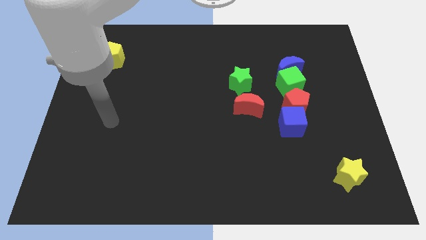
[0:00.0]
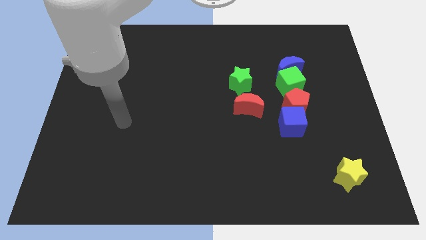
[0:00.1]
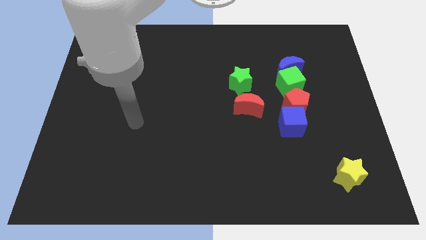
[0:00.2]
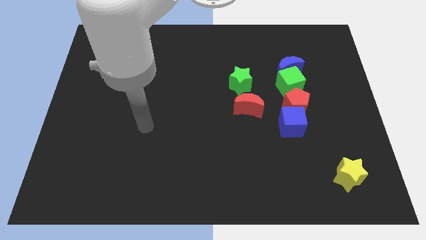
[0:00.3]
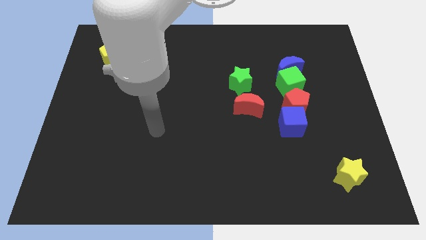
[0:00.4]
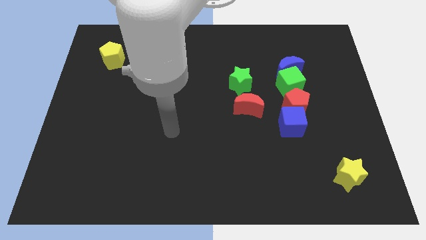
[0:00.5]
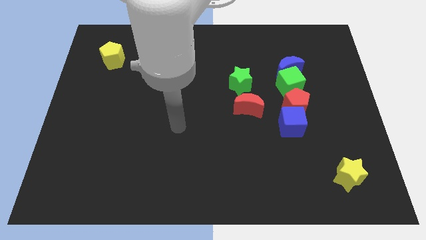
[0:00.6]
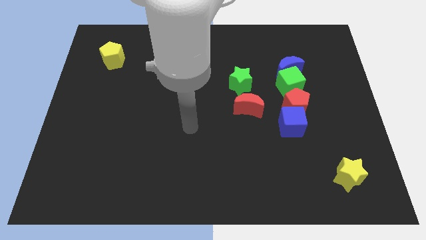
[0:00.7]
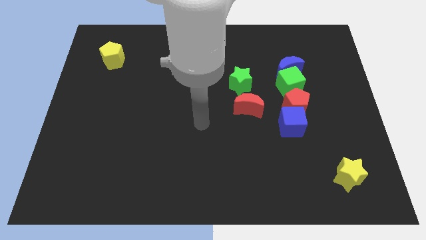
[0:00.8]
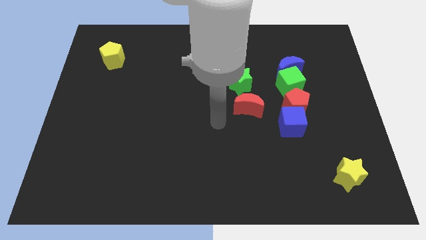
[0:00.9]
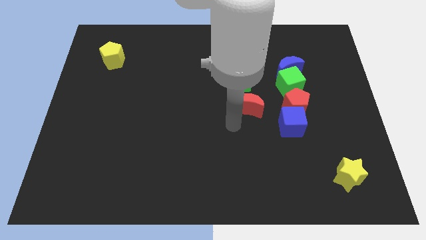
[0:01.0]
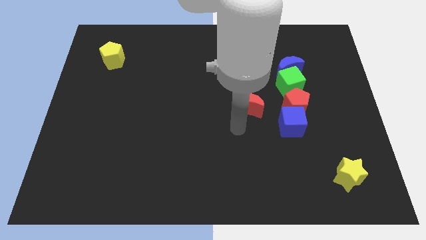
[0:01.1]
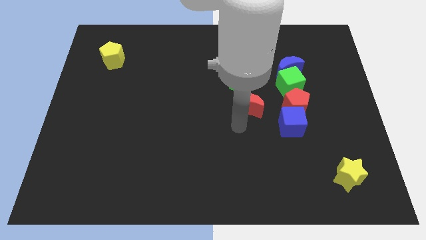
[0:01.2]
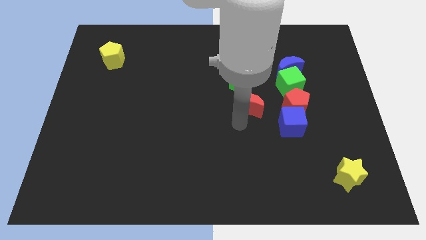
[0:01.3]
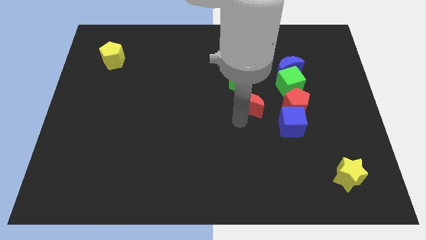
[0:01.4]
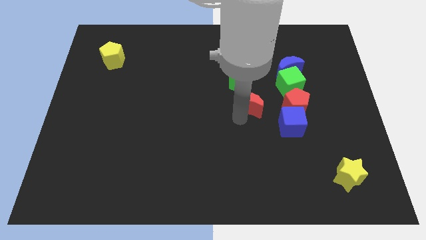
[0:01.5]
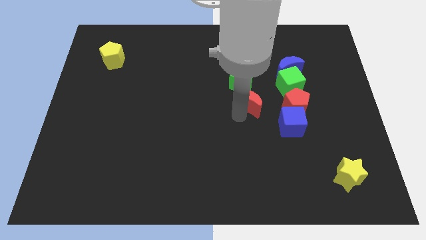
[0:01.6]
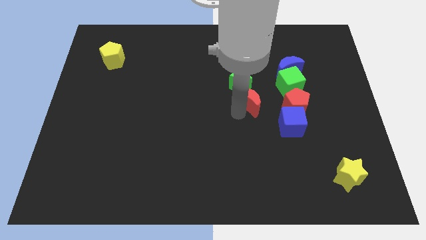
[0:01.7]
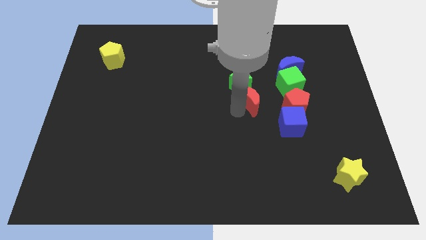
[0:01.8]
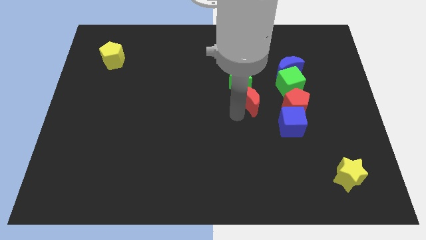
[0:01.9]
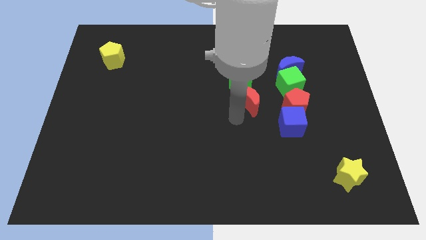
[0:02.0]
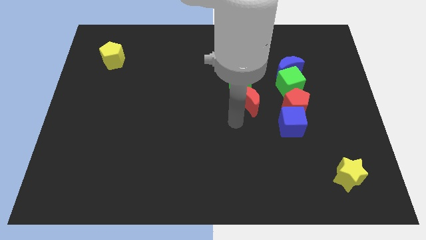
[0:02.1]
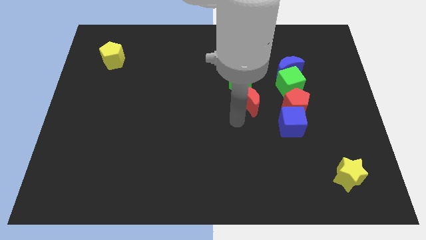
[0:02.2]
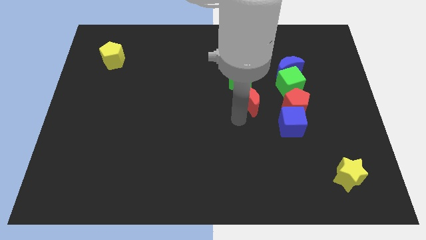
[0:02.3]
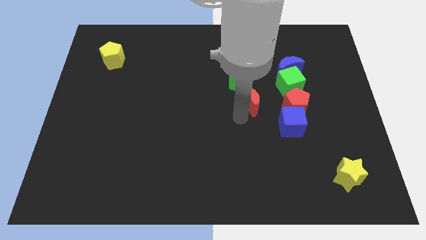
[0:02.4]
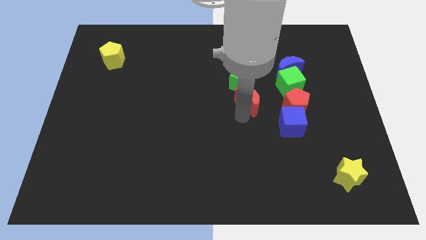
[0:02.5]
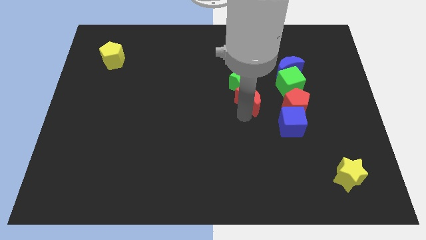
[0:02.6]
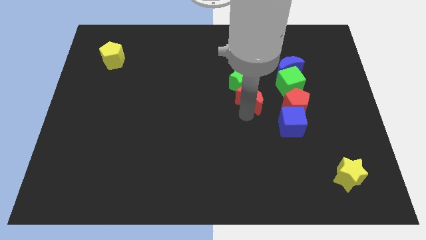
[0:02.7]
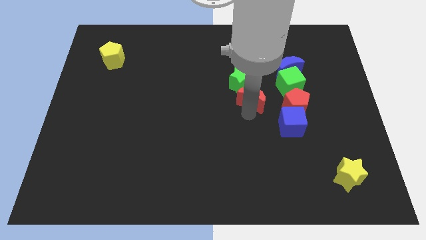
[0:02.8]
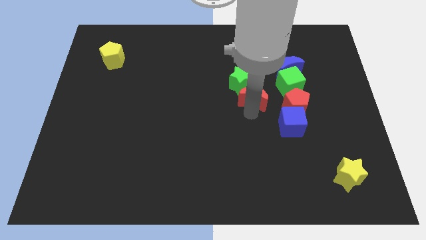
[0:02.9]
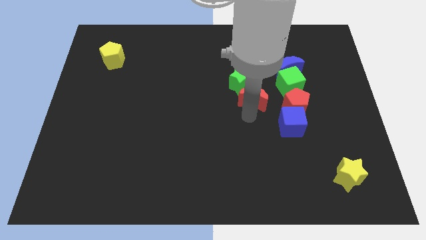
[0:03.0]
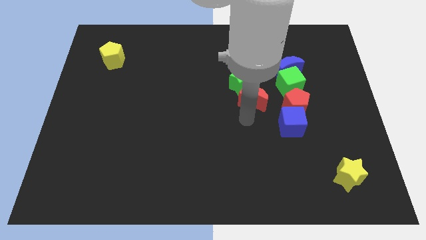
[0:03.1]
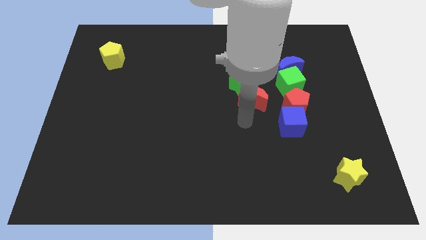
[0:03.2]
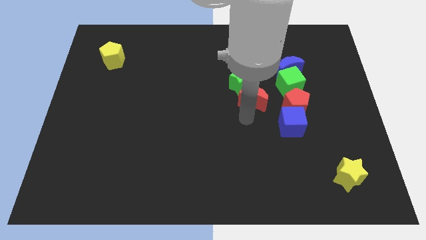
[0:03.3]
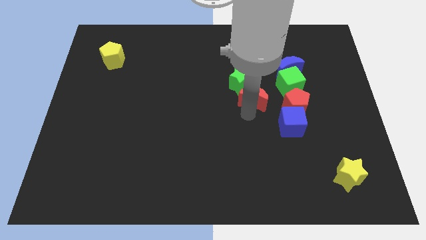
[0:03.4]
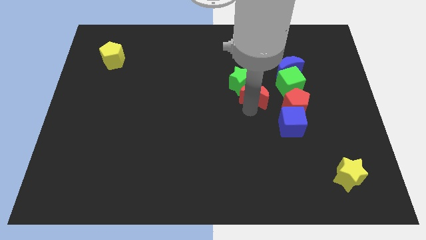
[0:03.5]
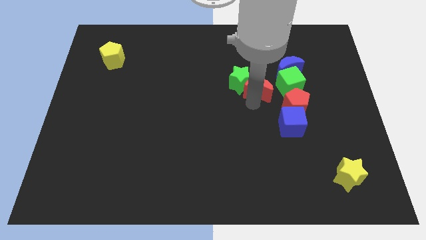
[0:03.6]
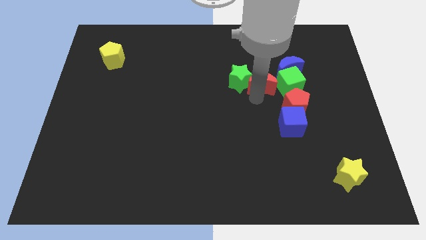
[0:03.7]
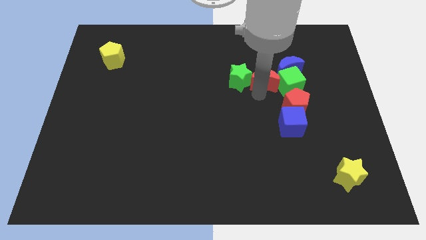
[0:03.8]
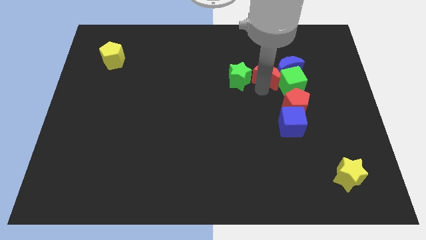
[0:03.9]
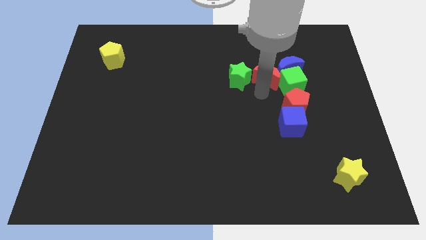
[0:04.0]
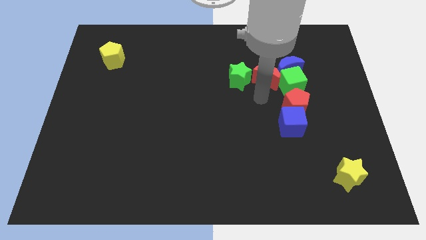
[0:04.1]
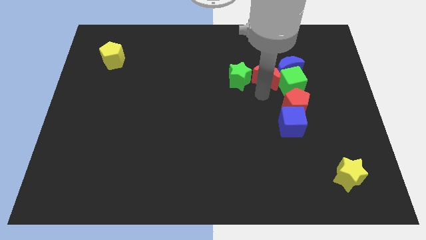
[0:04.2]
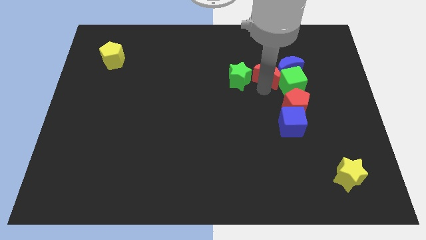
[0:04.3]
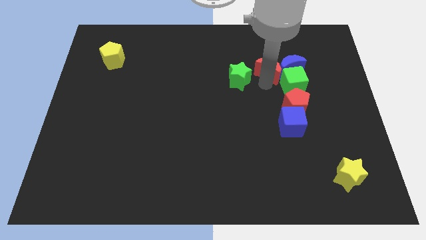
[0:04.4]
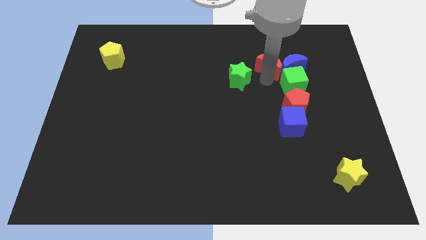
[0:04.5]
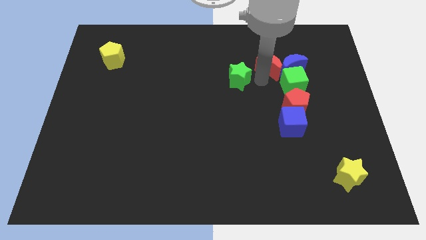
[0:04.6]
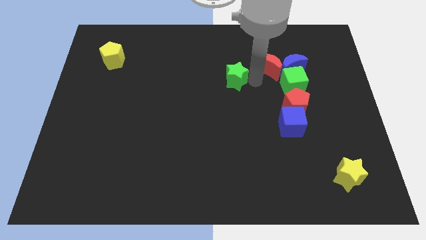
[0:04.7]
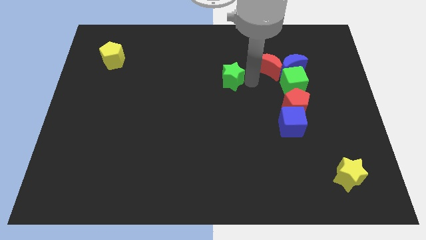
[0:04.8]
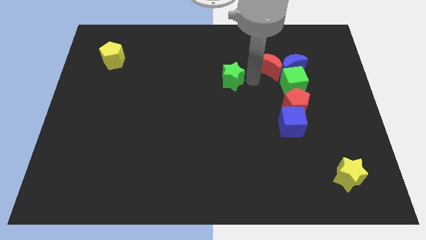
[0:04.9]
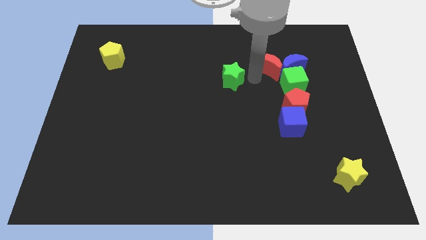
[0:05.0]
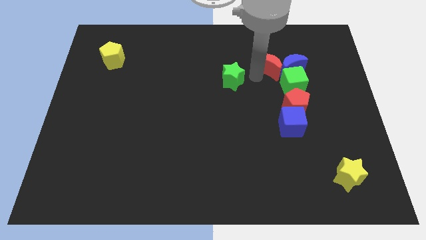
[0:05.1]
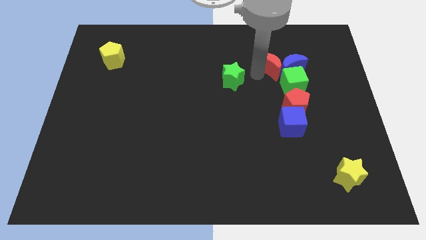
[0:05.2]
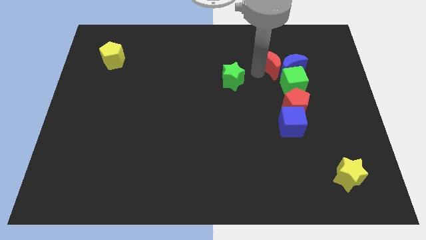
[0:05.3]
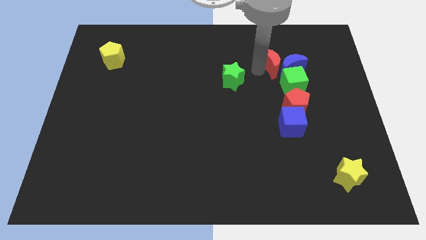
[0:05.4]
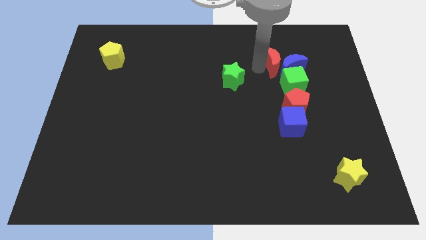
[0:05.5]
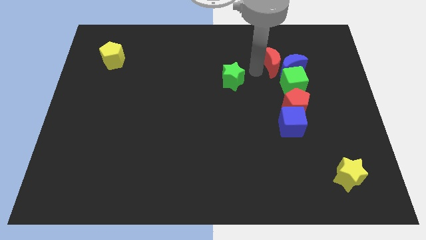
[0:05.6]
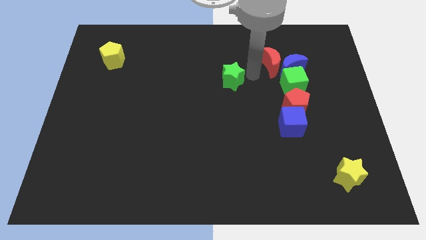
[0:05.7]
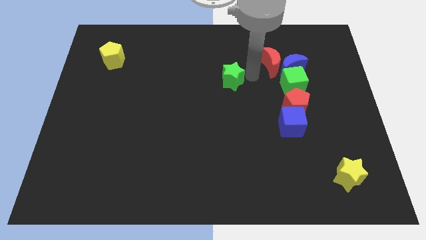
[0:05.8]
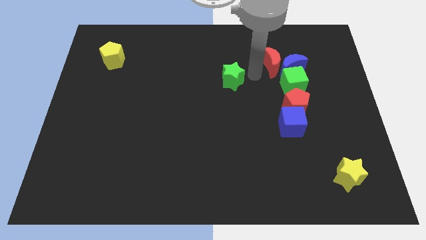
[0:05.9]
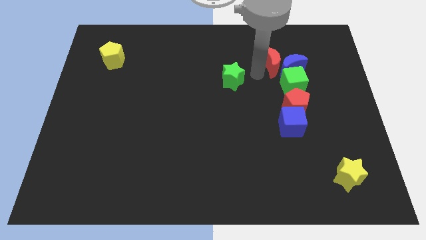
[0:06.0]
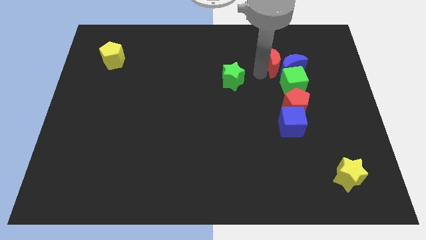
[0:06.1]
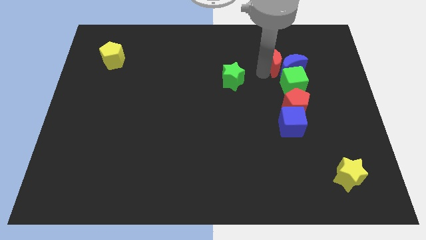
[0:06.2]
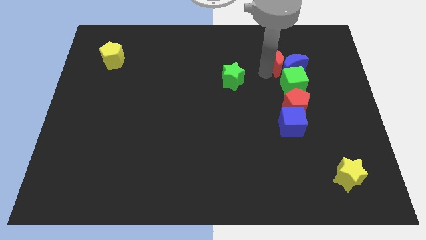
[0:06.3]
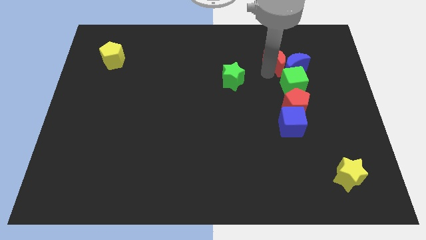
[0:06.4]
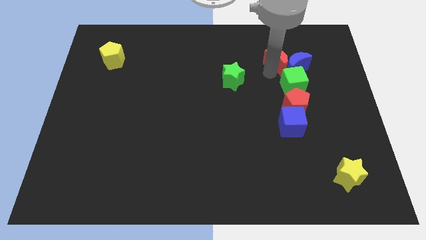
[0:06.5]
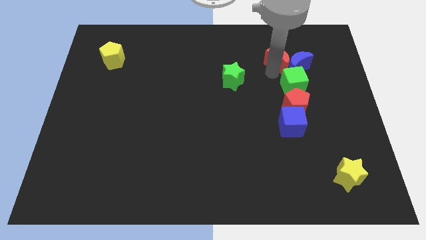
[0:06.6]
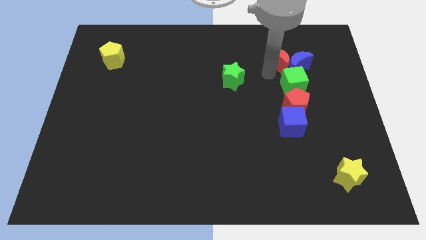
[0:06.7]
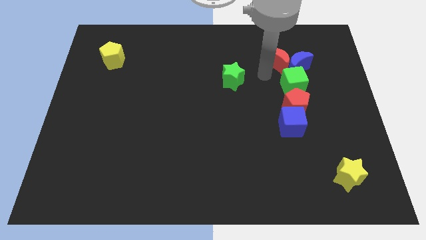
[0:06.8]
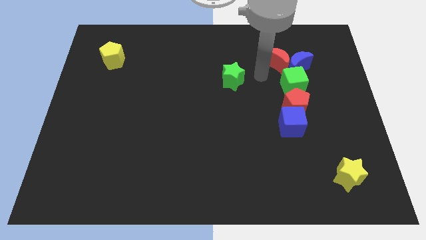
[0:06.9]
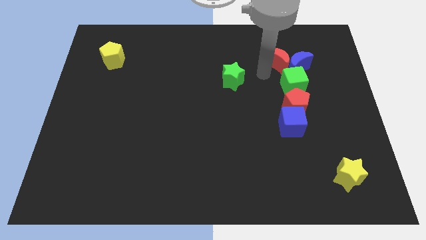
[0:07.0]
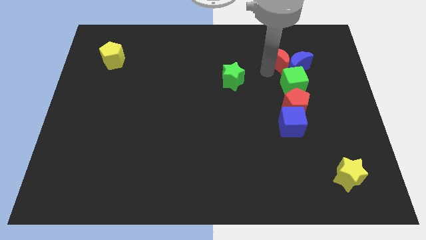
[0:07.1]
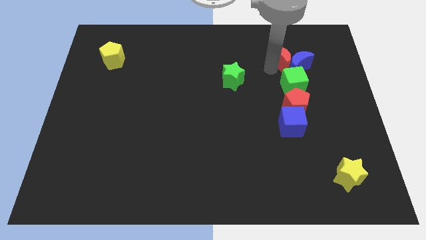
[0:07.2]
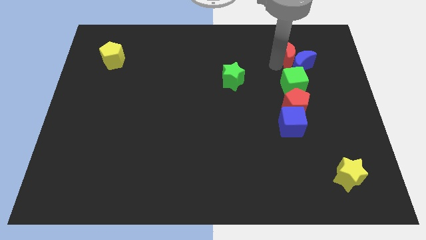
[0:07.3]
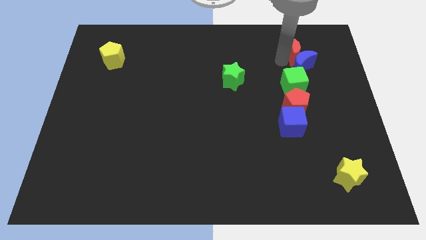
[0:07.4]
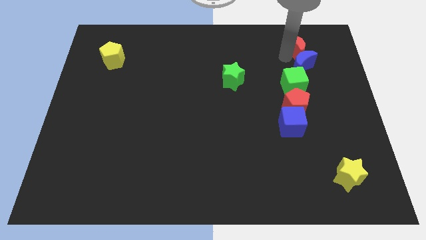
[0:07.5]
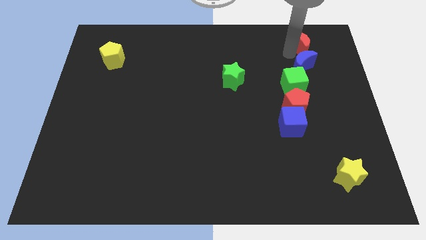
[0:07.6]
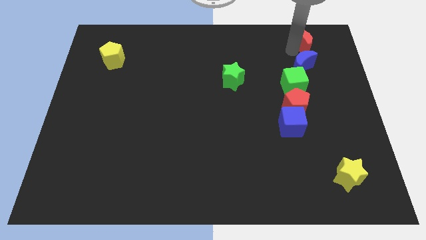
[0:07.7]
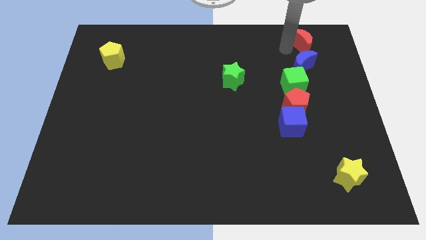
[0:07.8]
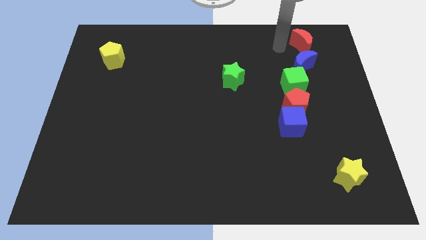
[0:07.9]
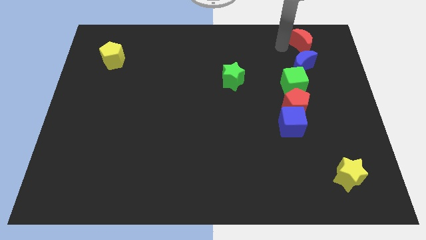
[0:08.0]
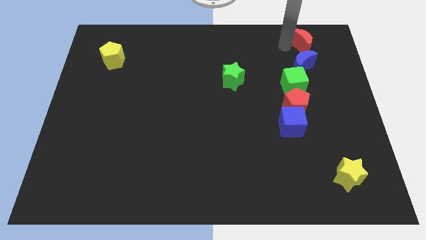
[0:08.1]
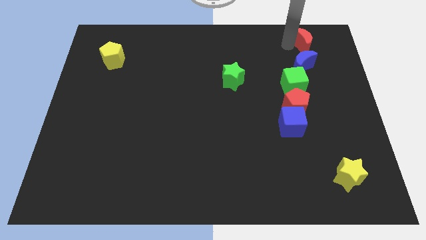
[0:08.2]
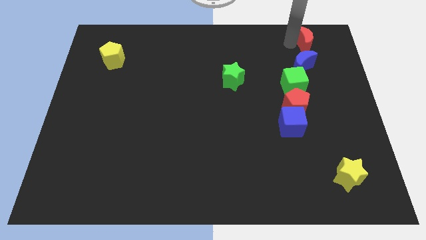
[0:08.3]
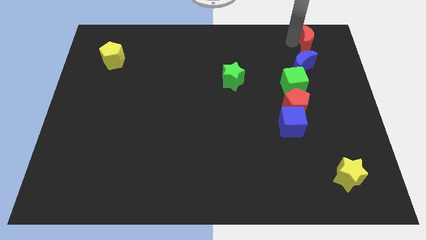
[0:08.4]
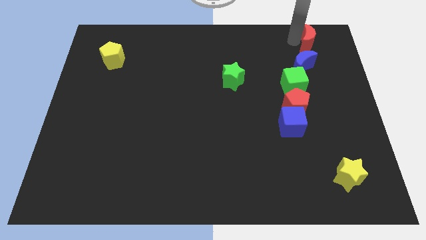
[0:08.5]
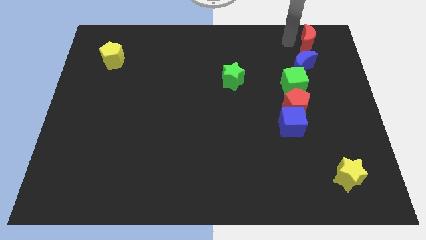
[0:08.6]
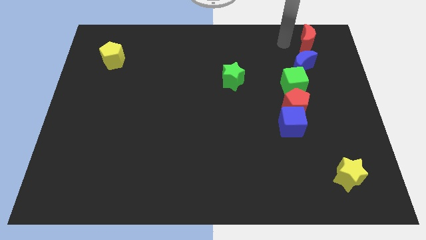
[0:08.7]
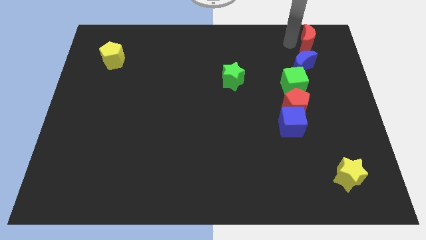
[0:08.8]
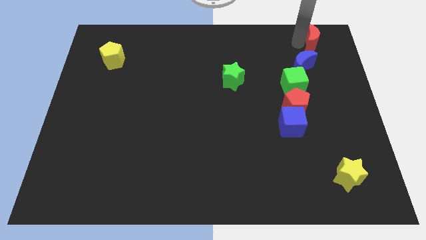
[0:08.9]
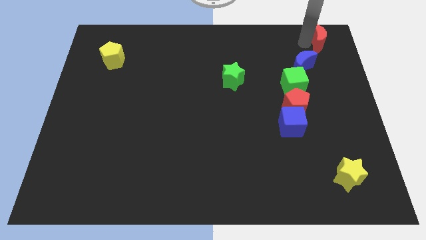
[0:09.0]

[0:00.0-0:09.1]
push the red moon to the top right of the board
